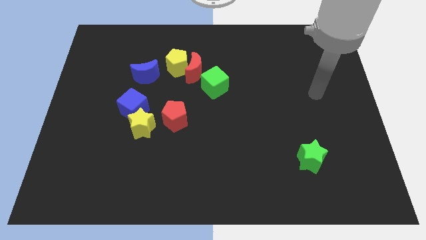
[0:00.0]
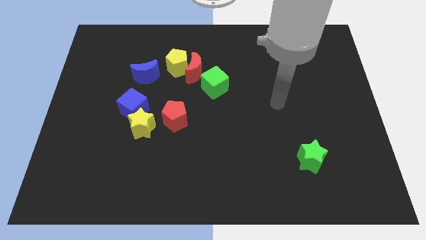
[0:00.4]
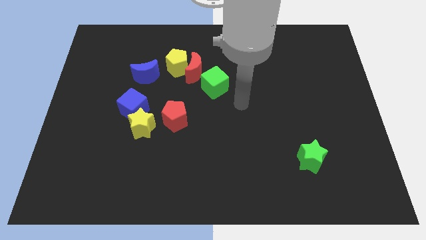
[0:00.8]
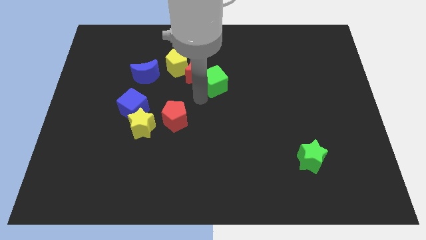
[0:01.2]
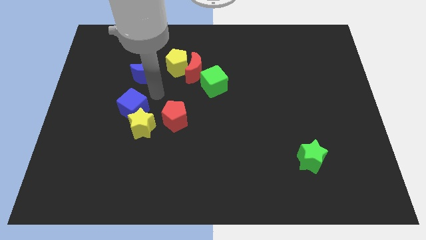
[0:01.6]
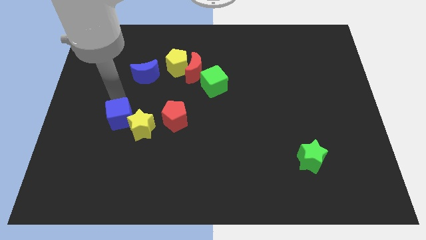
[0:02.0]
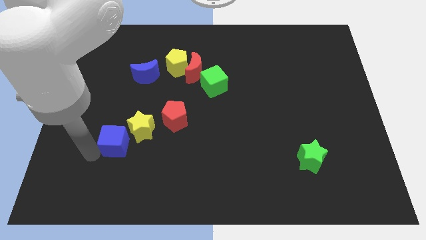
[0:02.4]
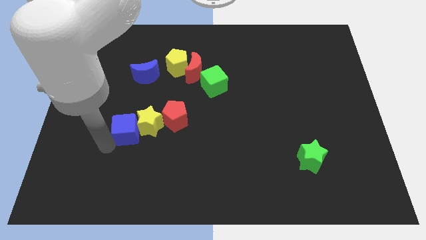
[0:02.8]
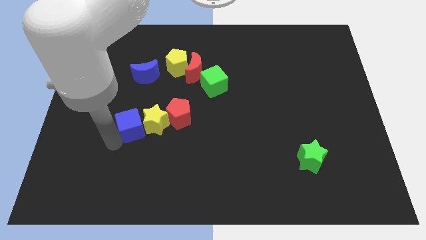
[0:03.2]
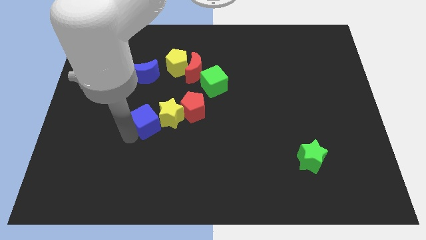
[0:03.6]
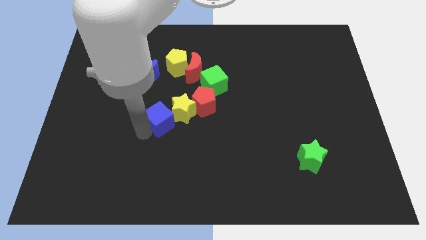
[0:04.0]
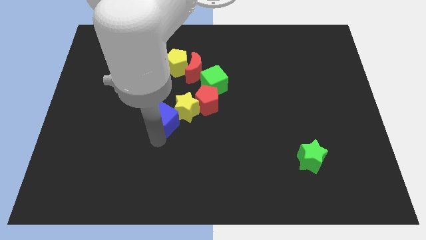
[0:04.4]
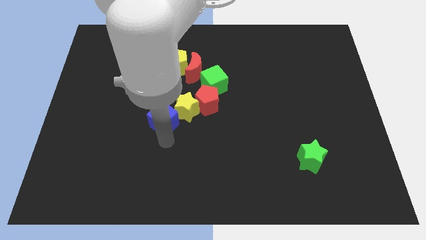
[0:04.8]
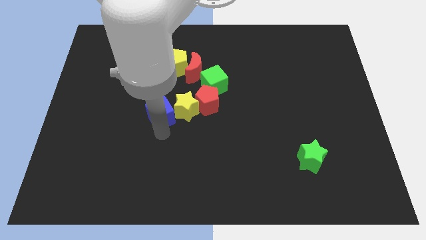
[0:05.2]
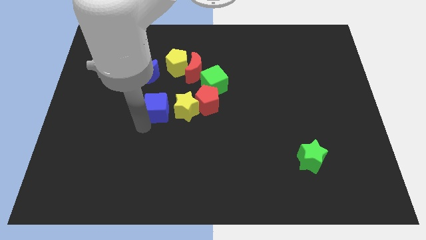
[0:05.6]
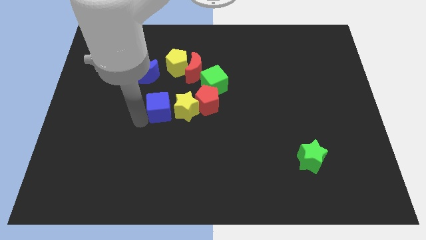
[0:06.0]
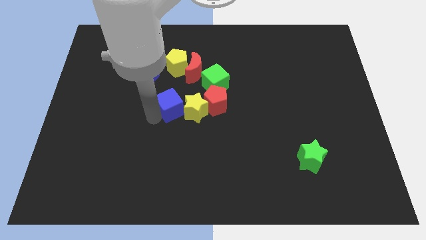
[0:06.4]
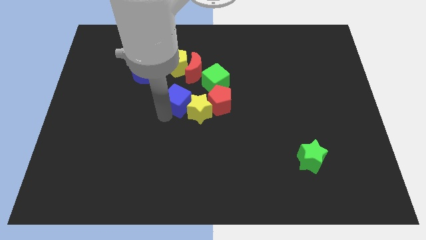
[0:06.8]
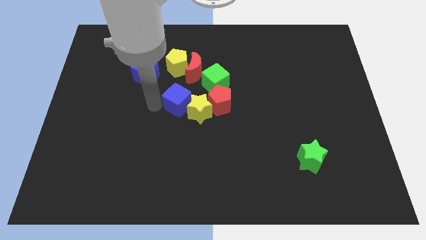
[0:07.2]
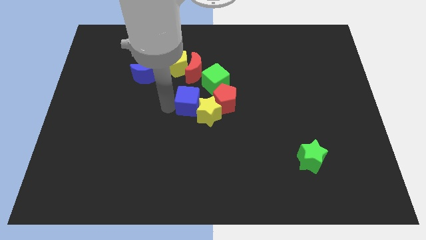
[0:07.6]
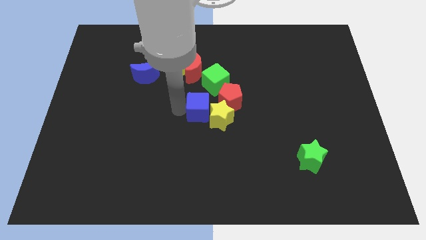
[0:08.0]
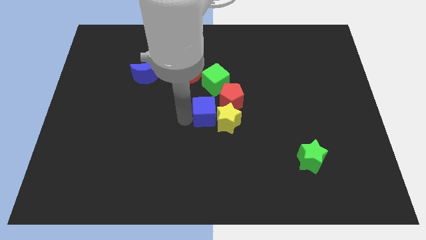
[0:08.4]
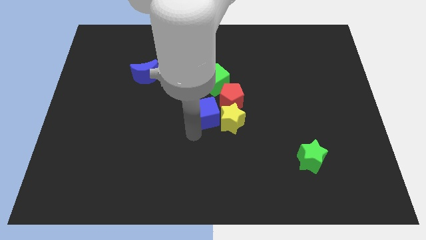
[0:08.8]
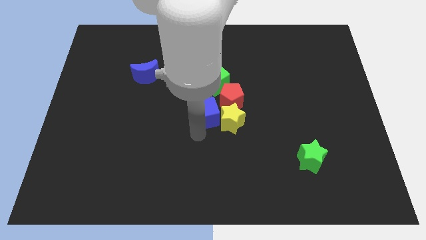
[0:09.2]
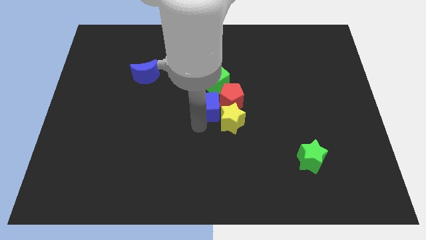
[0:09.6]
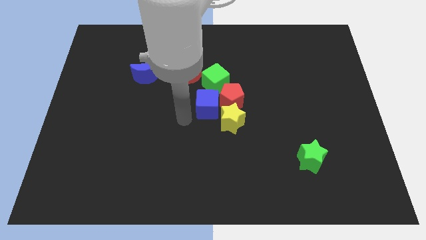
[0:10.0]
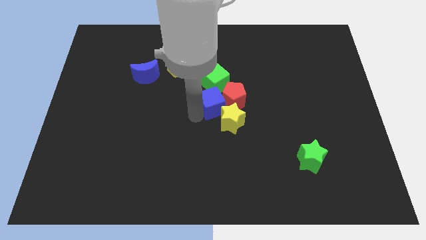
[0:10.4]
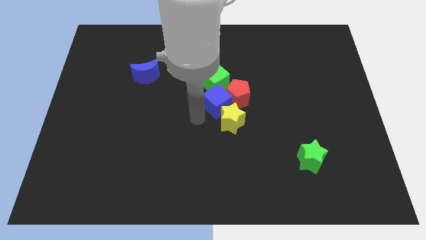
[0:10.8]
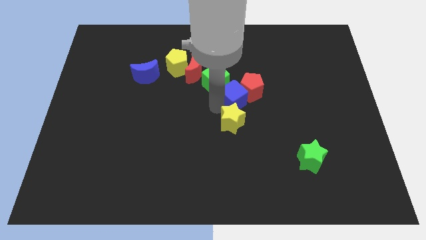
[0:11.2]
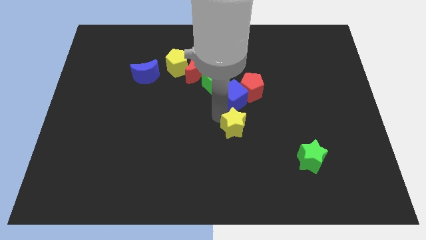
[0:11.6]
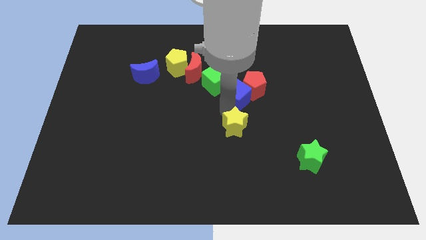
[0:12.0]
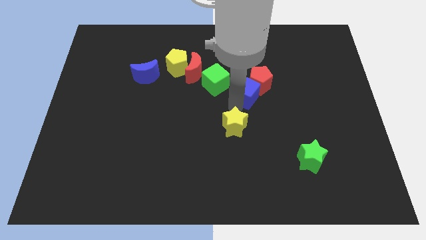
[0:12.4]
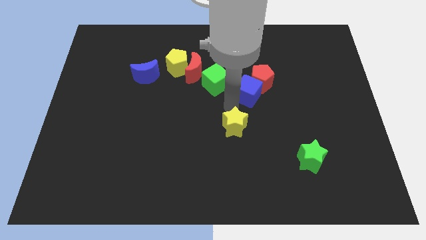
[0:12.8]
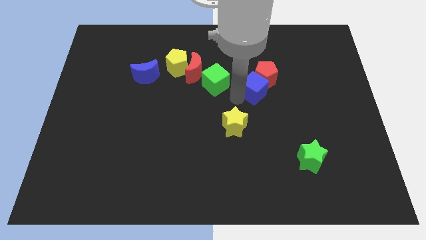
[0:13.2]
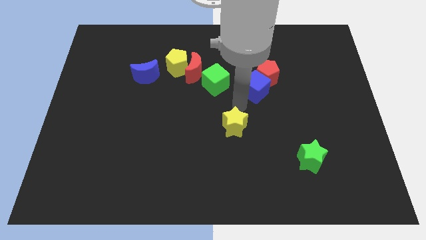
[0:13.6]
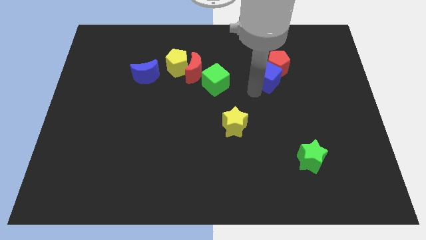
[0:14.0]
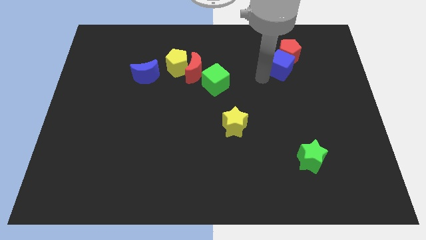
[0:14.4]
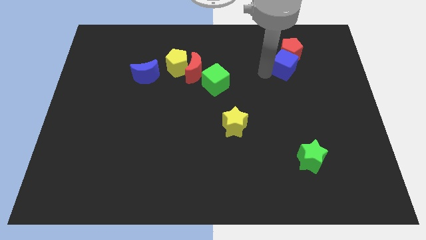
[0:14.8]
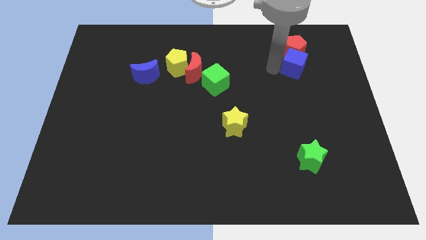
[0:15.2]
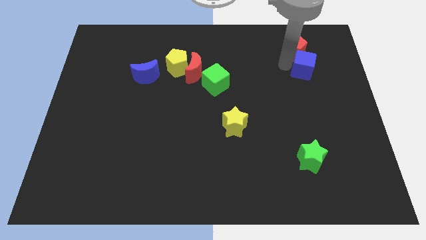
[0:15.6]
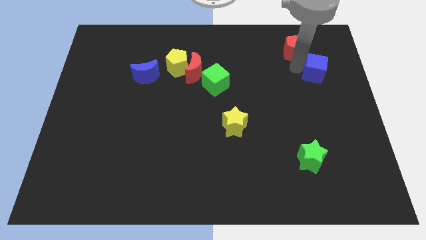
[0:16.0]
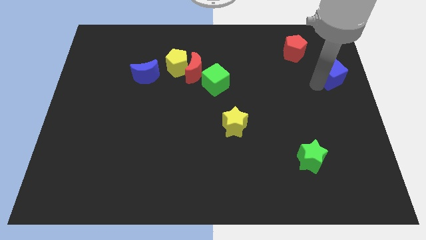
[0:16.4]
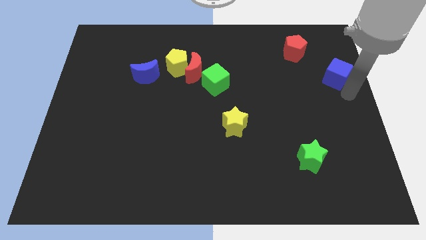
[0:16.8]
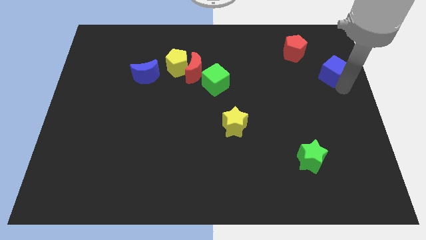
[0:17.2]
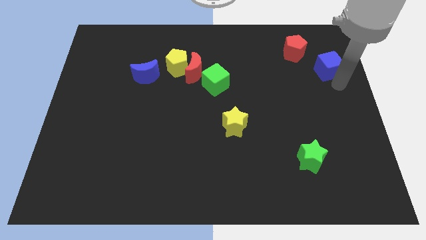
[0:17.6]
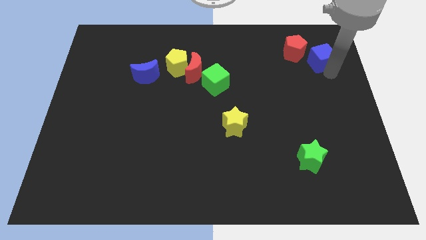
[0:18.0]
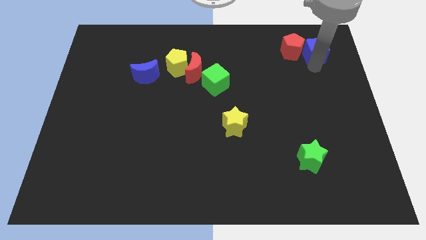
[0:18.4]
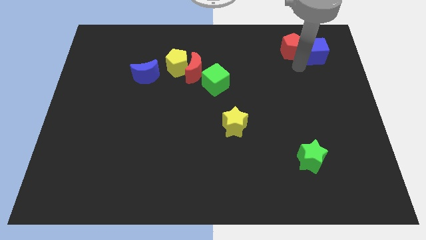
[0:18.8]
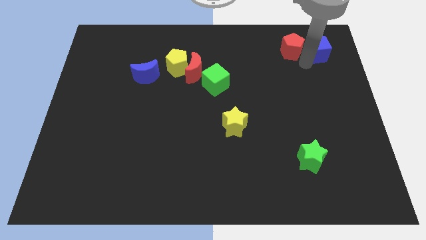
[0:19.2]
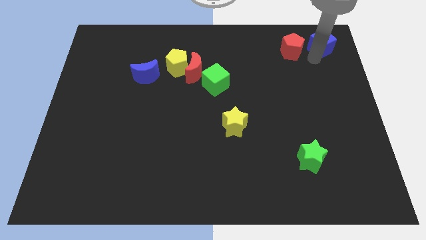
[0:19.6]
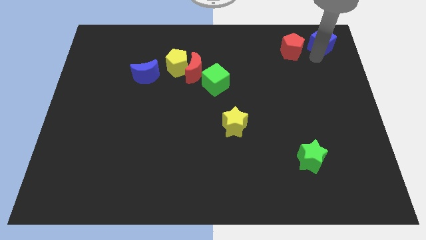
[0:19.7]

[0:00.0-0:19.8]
move the blue cube to the top right

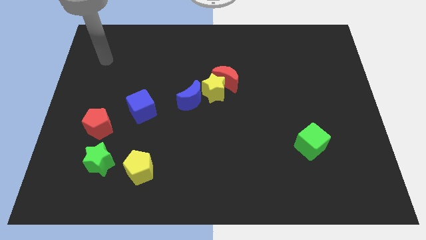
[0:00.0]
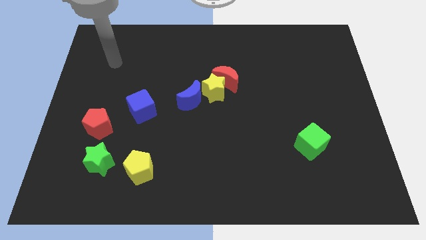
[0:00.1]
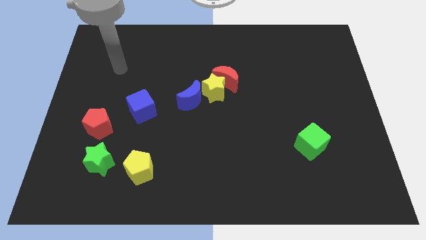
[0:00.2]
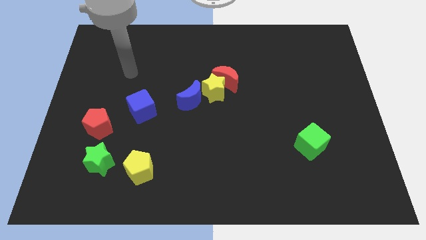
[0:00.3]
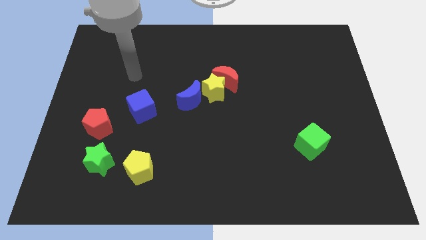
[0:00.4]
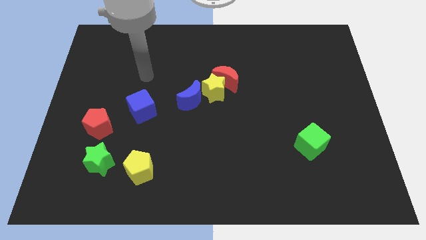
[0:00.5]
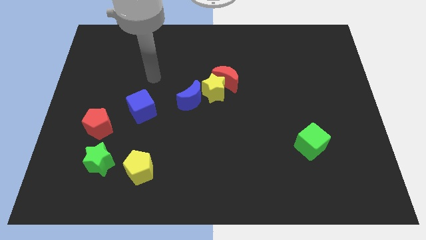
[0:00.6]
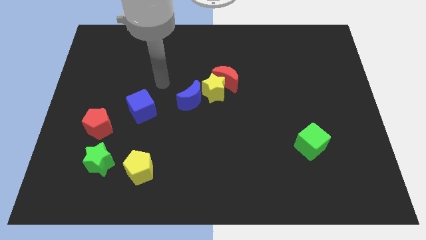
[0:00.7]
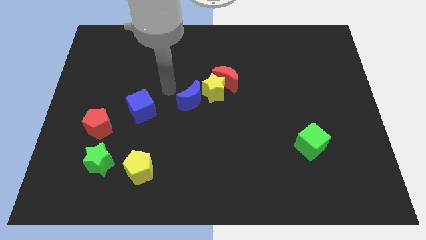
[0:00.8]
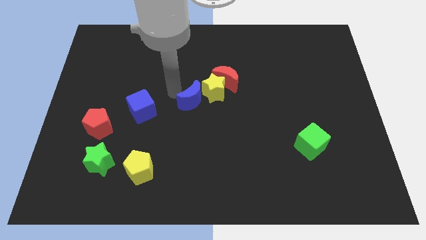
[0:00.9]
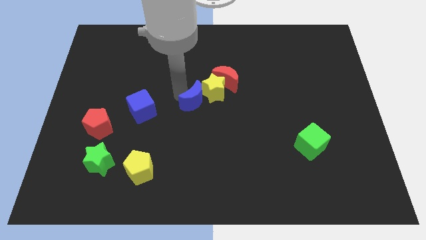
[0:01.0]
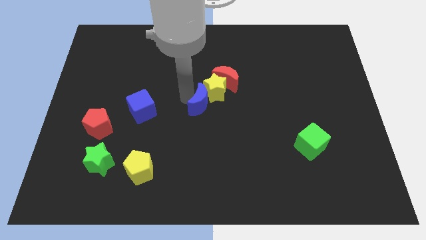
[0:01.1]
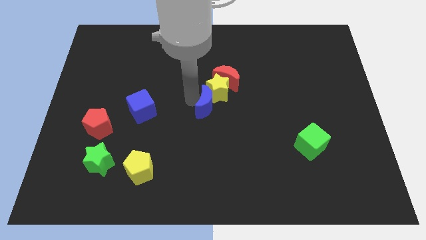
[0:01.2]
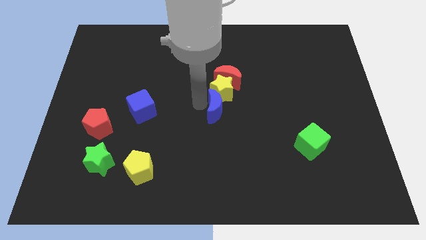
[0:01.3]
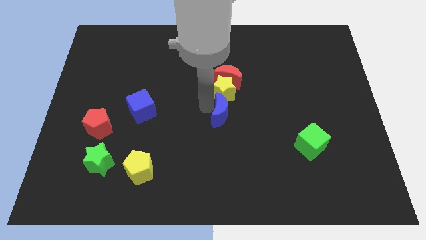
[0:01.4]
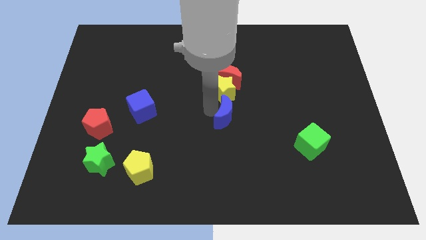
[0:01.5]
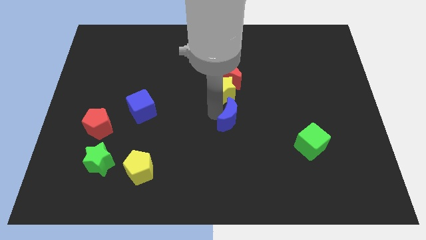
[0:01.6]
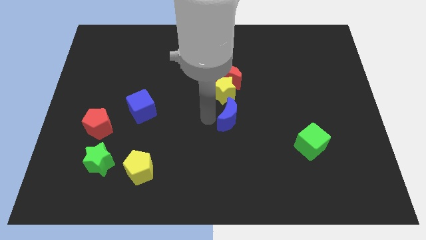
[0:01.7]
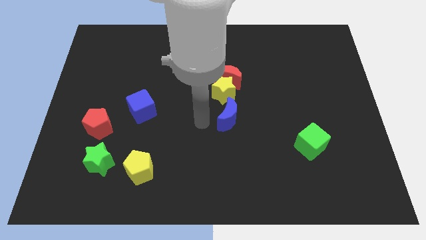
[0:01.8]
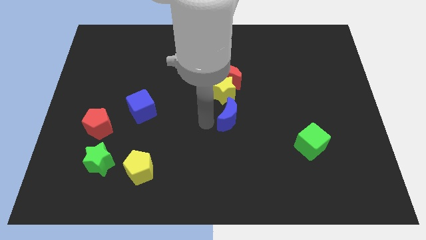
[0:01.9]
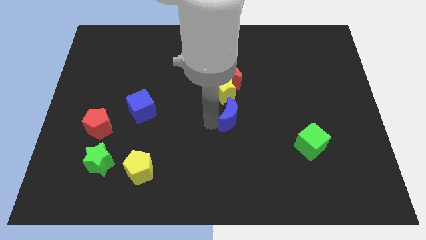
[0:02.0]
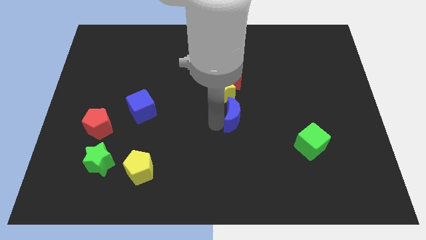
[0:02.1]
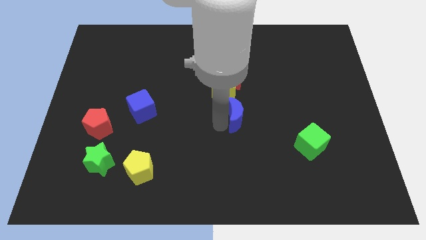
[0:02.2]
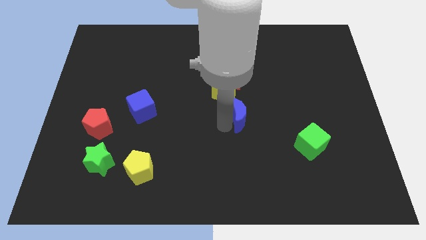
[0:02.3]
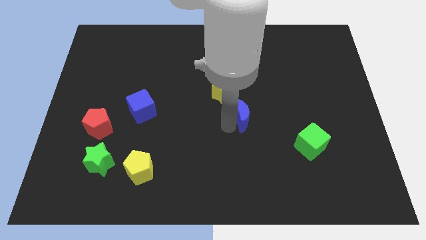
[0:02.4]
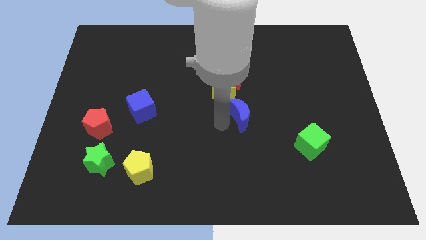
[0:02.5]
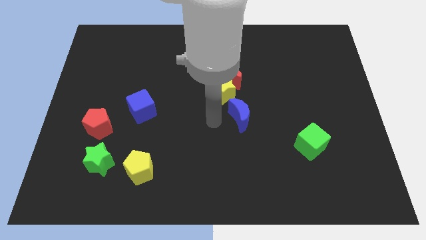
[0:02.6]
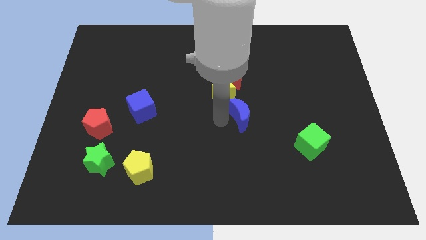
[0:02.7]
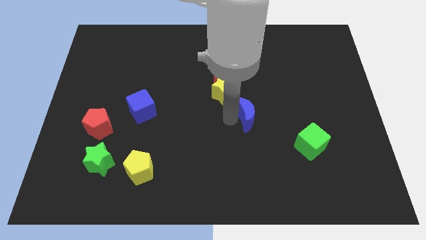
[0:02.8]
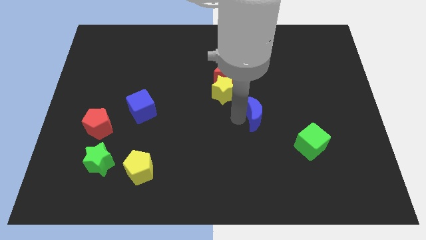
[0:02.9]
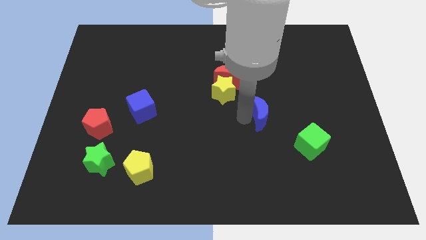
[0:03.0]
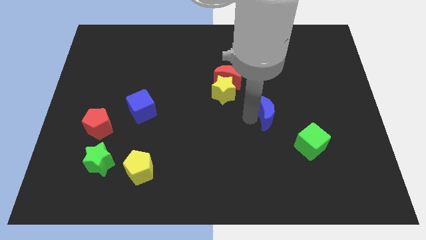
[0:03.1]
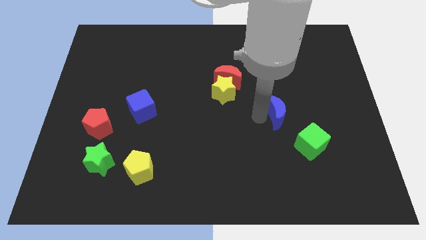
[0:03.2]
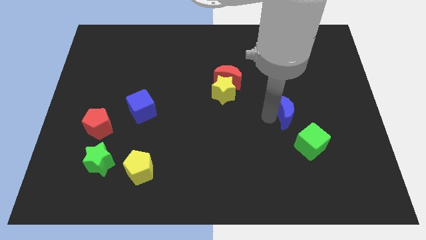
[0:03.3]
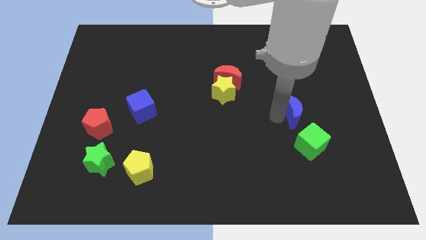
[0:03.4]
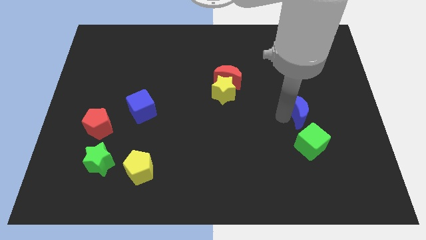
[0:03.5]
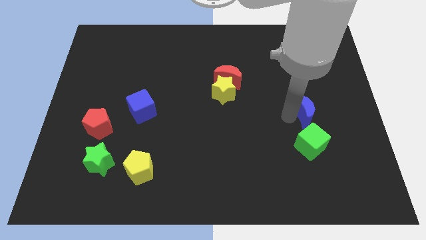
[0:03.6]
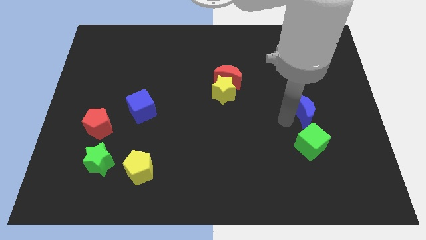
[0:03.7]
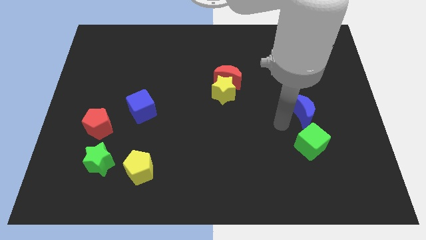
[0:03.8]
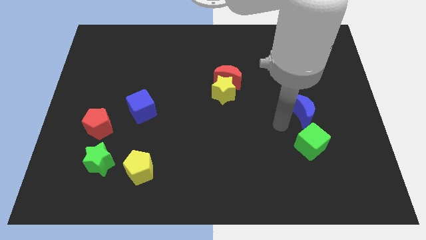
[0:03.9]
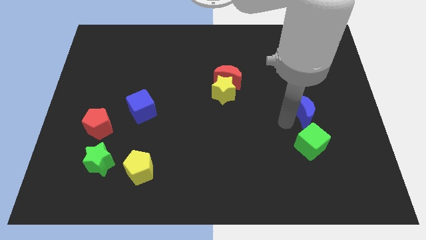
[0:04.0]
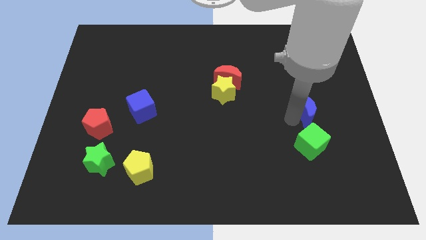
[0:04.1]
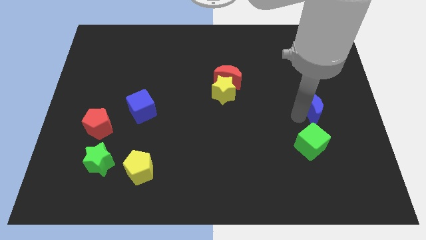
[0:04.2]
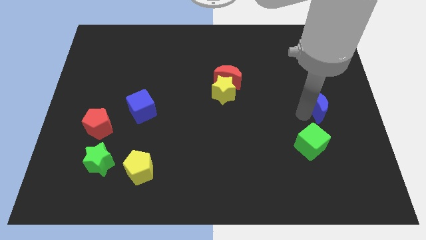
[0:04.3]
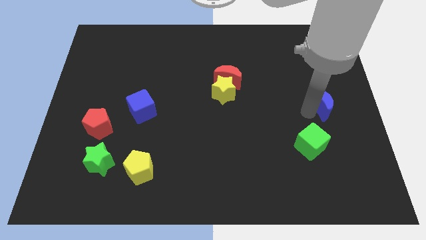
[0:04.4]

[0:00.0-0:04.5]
slide the blue moon to the right side
